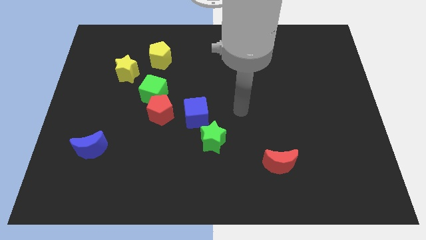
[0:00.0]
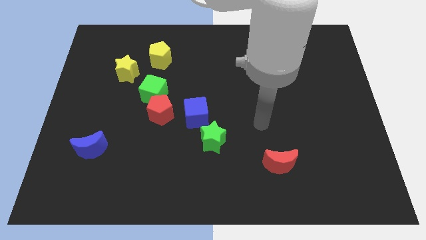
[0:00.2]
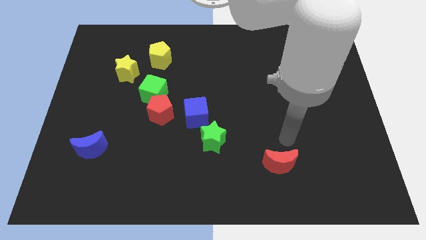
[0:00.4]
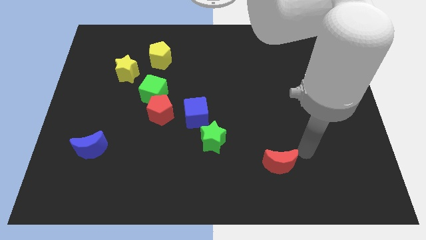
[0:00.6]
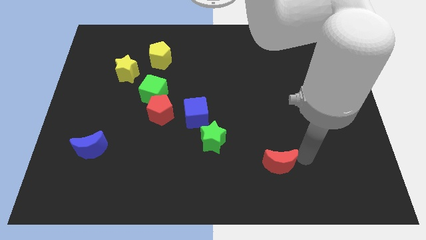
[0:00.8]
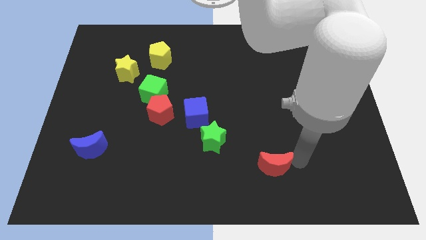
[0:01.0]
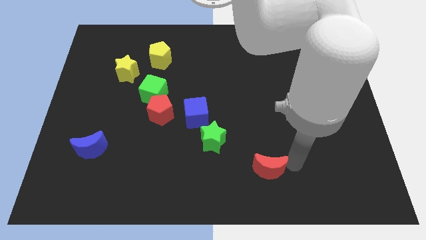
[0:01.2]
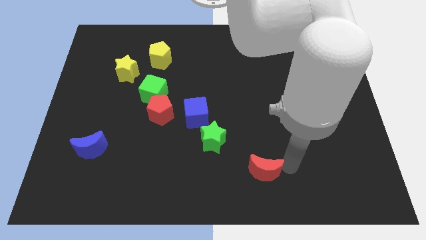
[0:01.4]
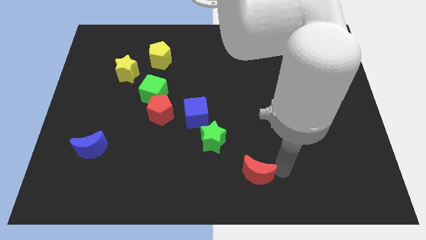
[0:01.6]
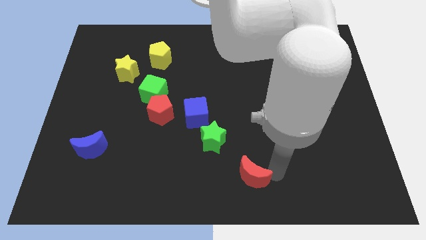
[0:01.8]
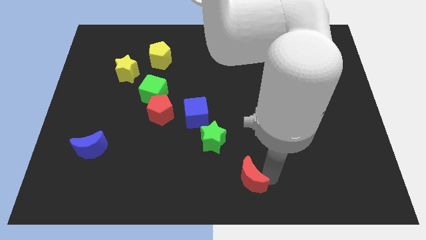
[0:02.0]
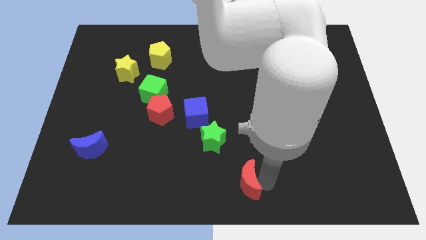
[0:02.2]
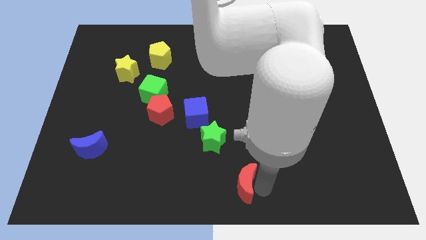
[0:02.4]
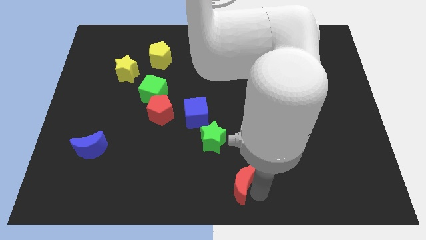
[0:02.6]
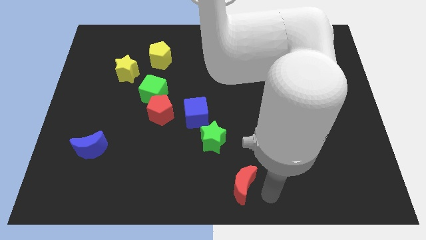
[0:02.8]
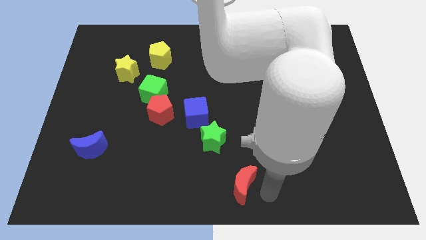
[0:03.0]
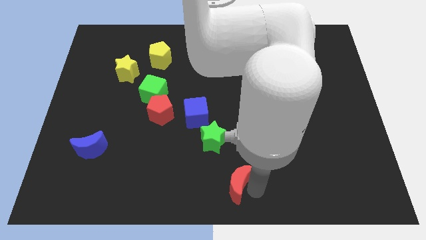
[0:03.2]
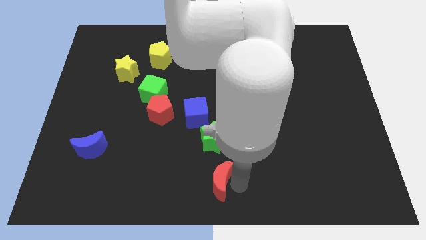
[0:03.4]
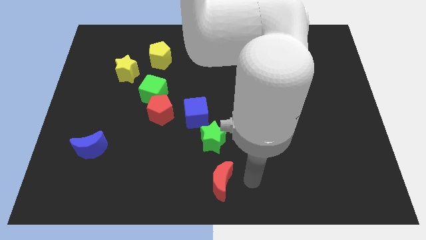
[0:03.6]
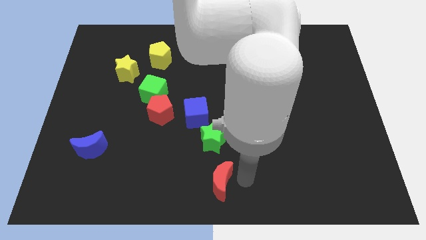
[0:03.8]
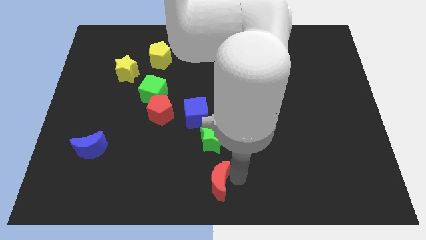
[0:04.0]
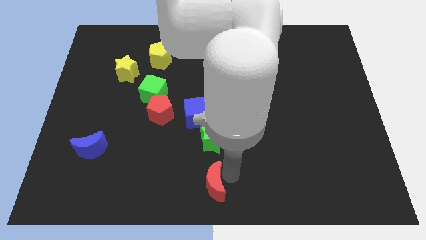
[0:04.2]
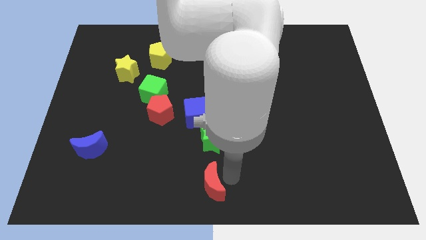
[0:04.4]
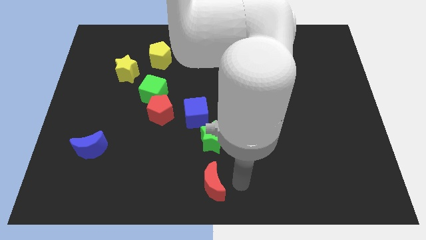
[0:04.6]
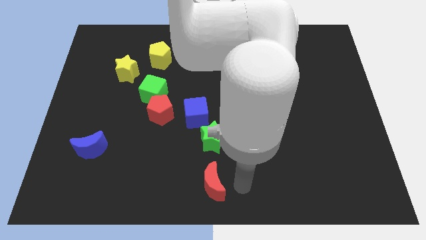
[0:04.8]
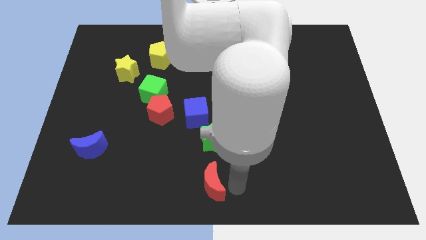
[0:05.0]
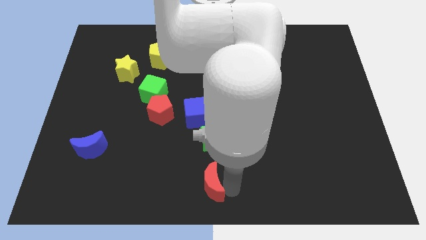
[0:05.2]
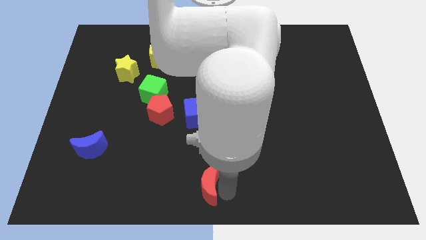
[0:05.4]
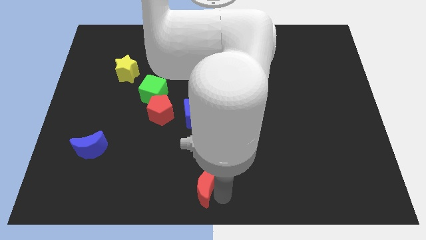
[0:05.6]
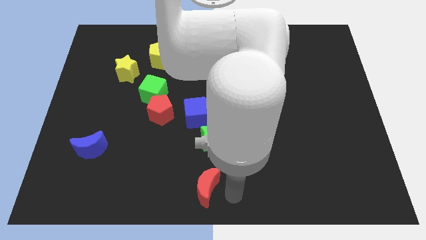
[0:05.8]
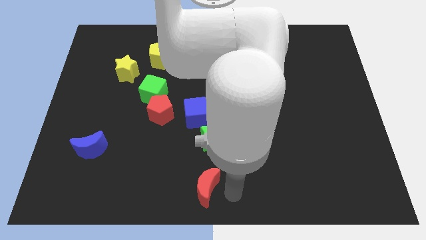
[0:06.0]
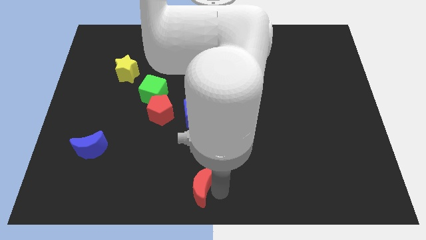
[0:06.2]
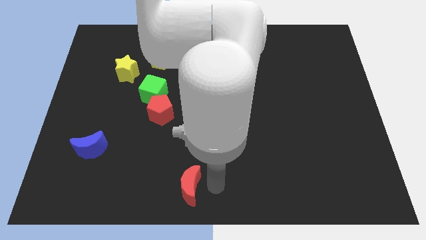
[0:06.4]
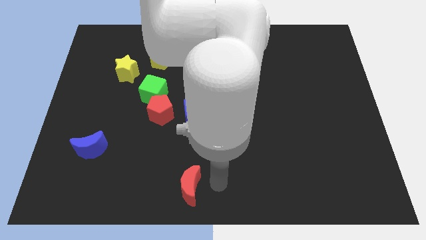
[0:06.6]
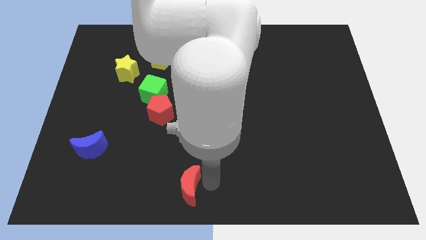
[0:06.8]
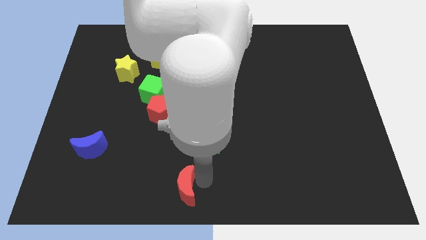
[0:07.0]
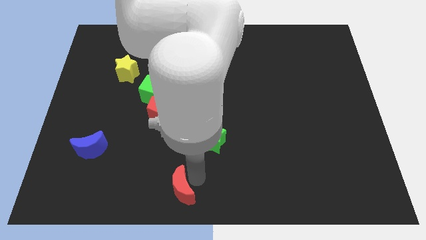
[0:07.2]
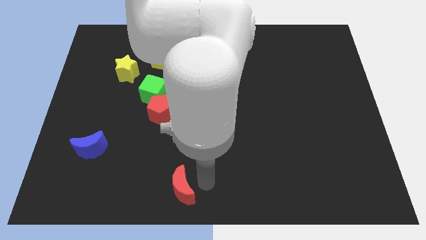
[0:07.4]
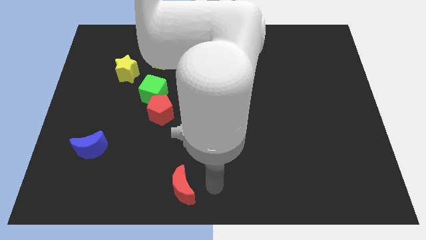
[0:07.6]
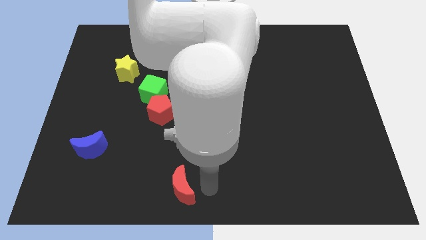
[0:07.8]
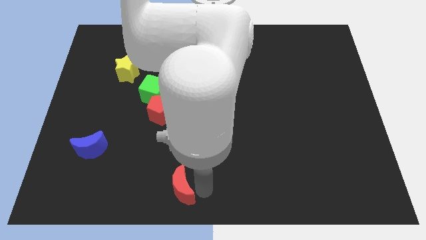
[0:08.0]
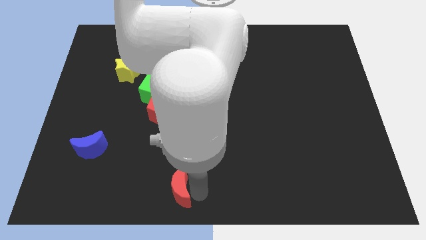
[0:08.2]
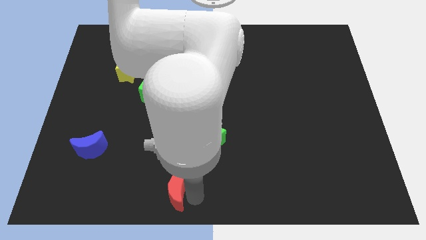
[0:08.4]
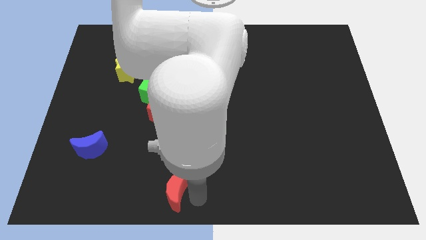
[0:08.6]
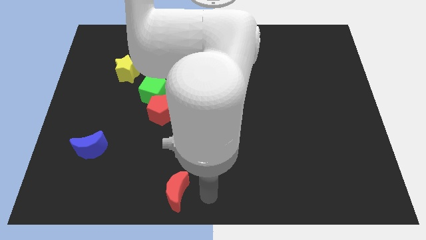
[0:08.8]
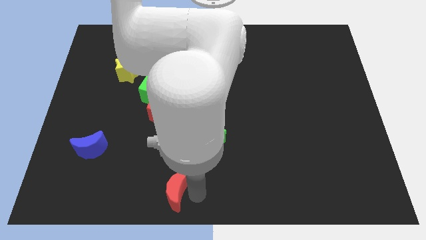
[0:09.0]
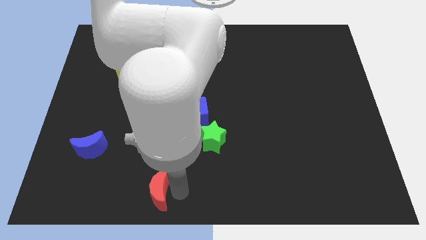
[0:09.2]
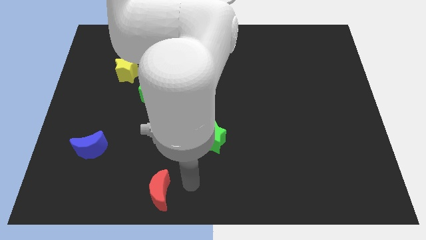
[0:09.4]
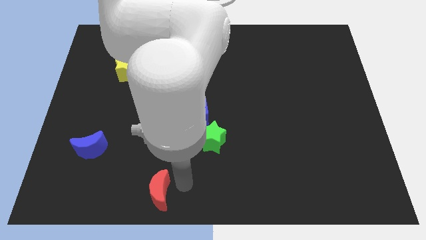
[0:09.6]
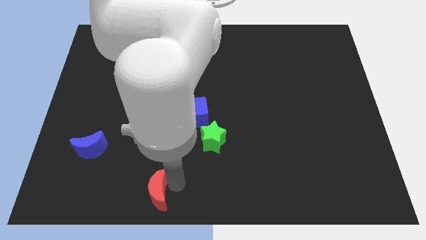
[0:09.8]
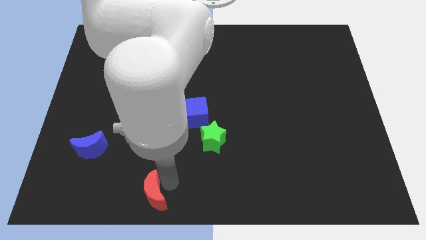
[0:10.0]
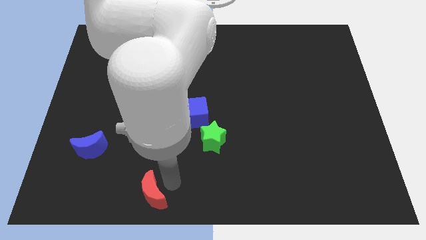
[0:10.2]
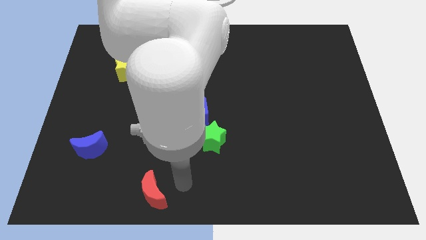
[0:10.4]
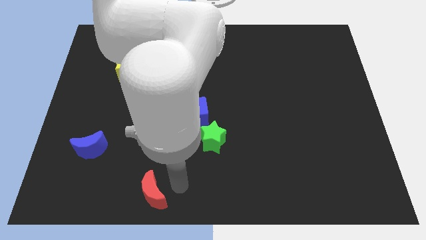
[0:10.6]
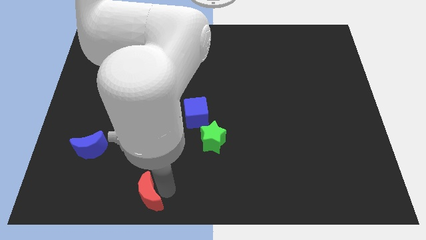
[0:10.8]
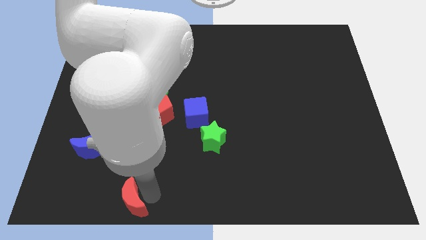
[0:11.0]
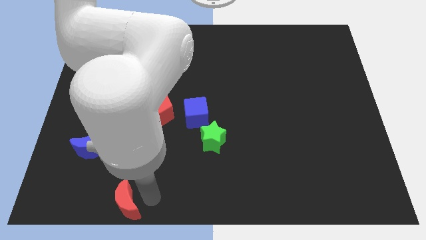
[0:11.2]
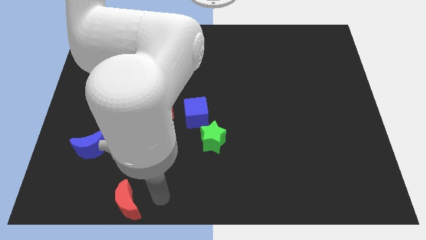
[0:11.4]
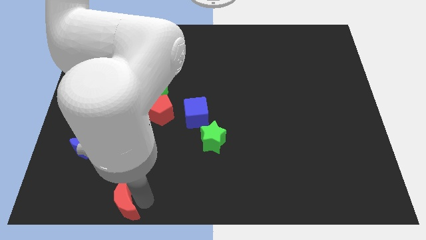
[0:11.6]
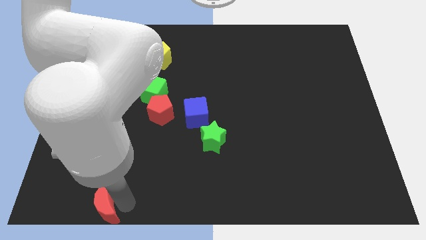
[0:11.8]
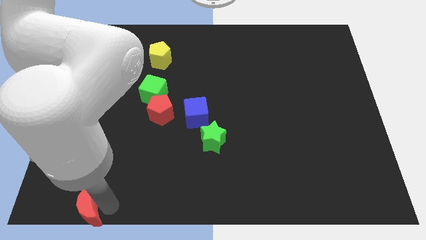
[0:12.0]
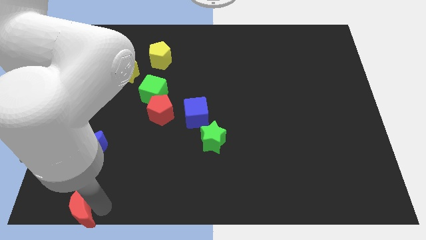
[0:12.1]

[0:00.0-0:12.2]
slide the red moon to the bottom left of the board

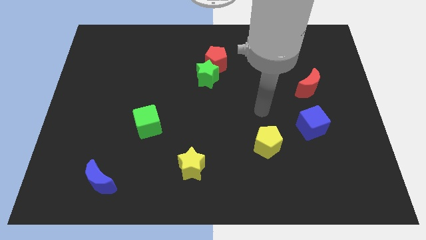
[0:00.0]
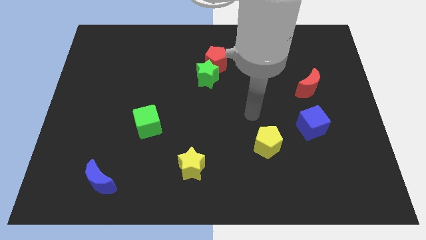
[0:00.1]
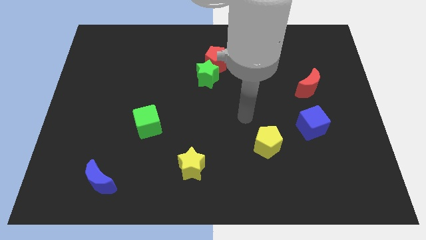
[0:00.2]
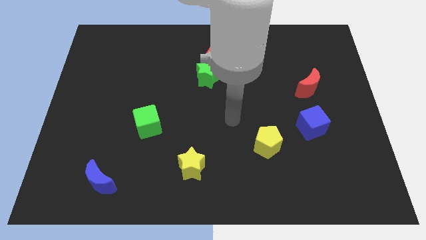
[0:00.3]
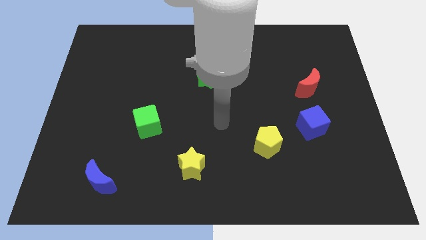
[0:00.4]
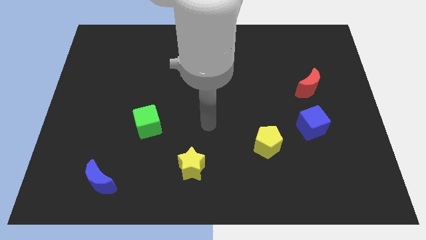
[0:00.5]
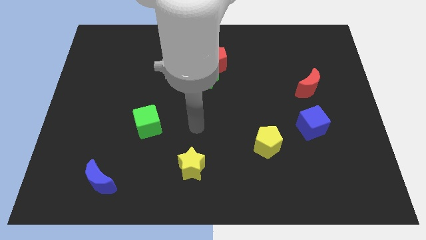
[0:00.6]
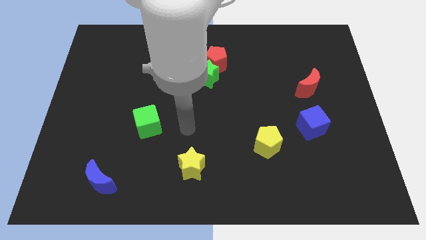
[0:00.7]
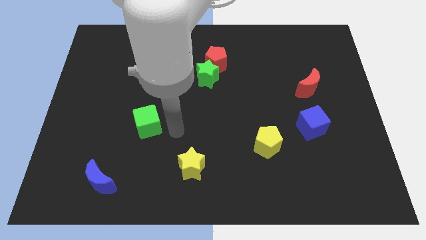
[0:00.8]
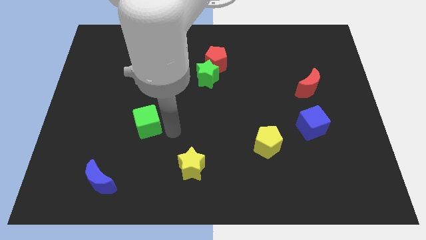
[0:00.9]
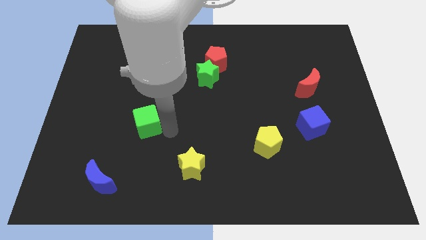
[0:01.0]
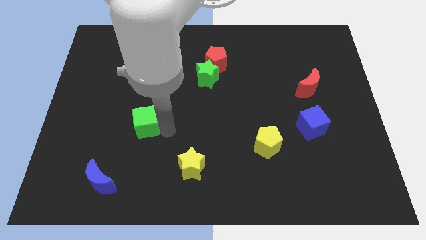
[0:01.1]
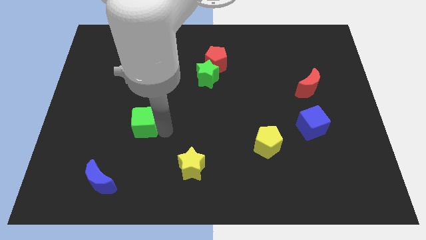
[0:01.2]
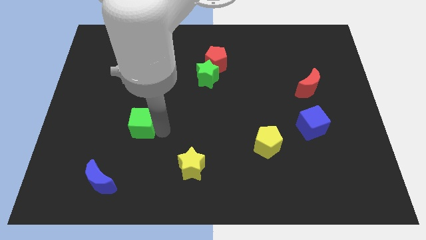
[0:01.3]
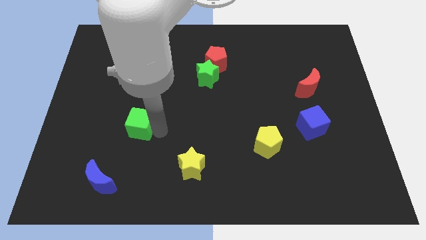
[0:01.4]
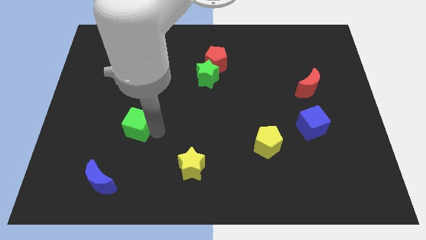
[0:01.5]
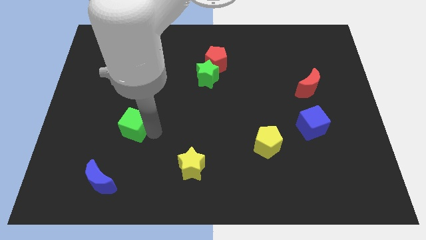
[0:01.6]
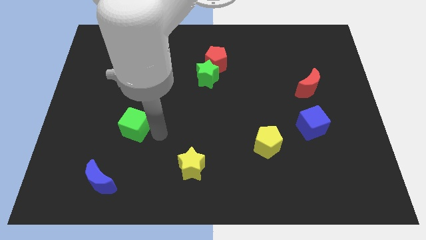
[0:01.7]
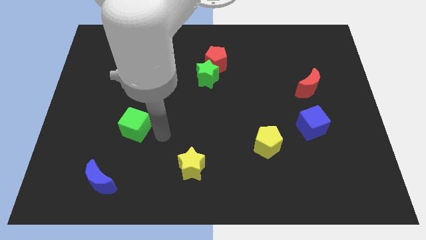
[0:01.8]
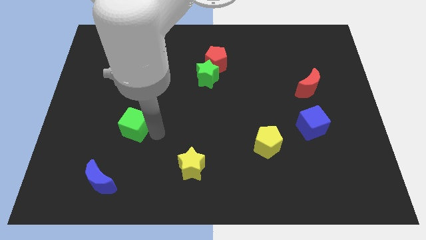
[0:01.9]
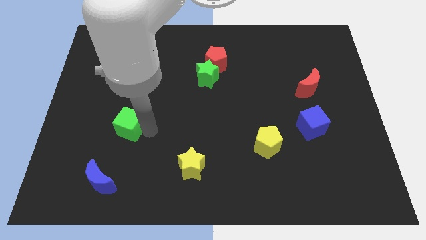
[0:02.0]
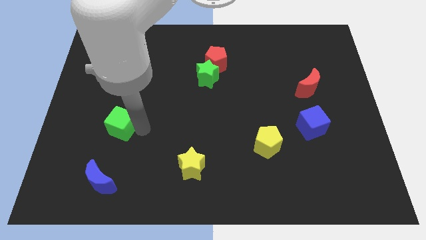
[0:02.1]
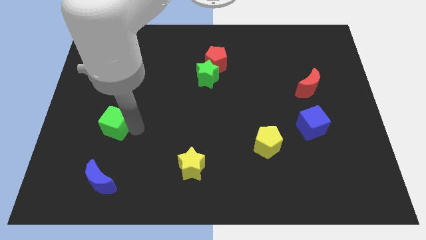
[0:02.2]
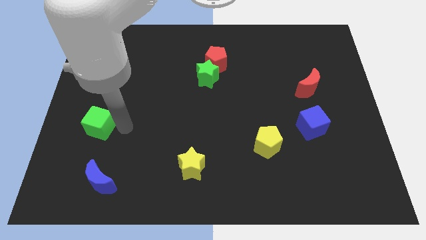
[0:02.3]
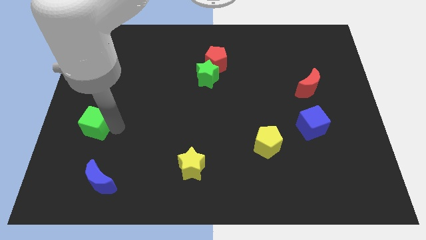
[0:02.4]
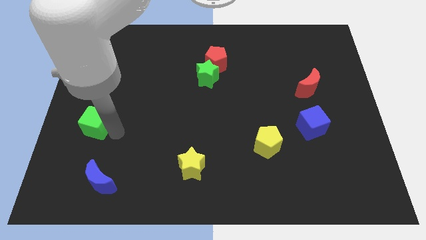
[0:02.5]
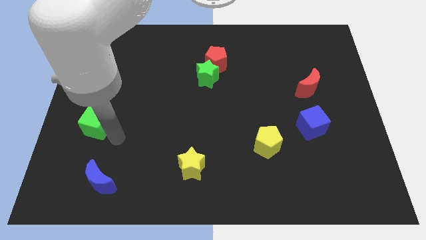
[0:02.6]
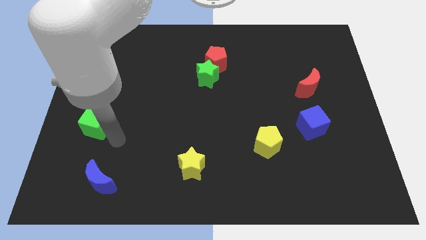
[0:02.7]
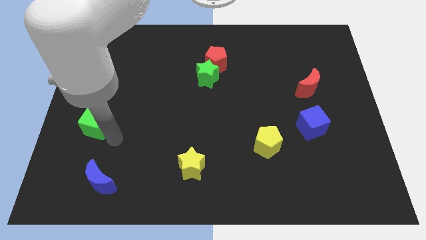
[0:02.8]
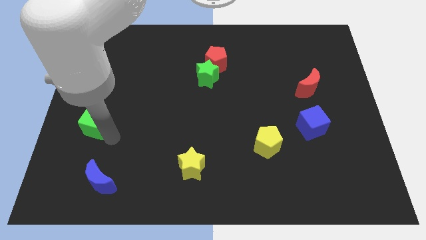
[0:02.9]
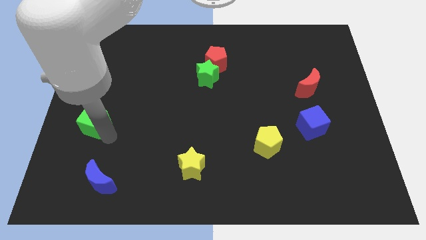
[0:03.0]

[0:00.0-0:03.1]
move the green cube to the left side of the board
